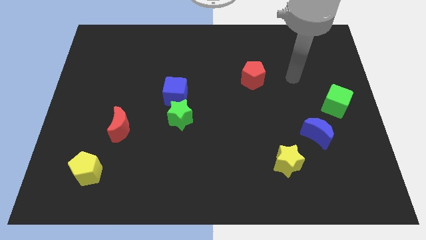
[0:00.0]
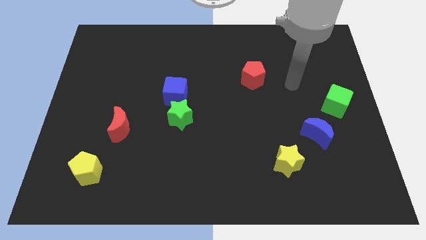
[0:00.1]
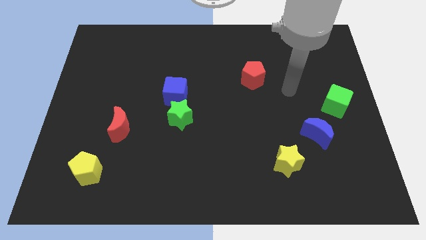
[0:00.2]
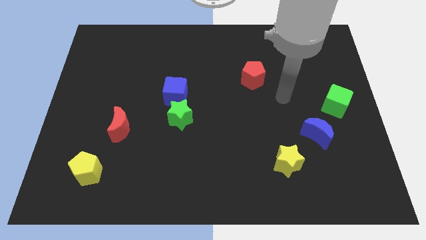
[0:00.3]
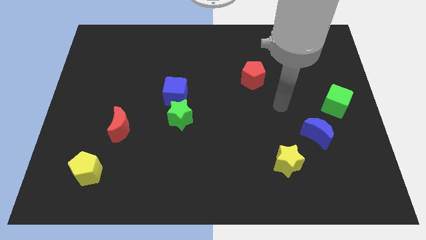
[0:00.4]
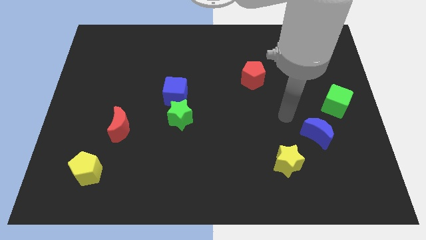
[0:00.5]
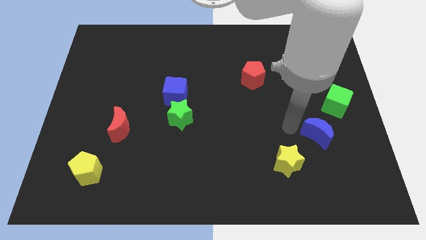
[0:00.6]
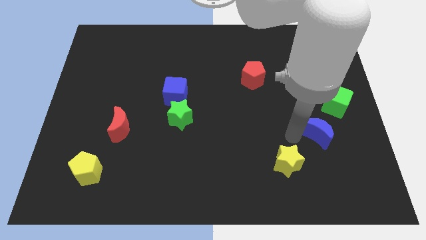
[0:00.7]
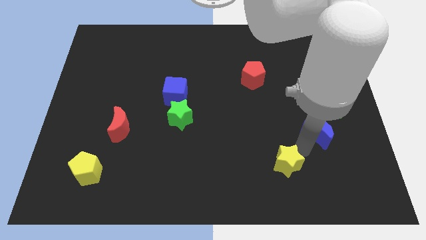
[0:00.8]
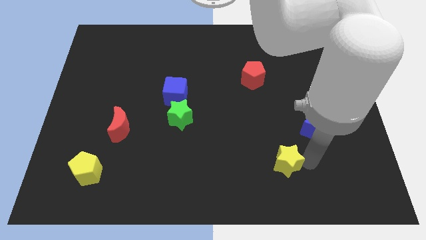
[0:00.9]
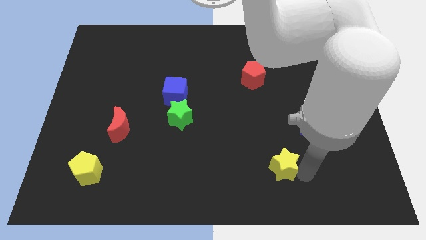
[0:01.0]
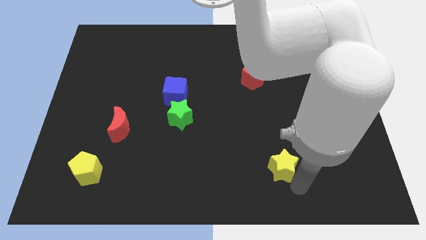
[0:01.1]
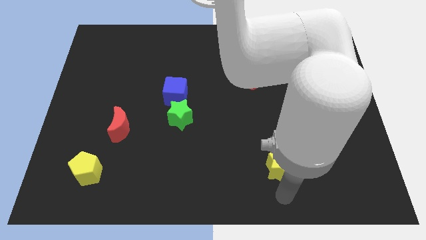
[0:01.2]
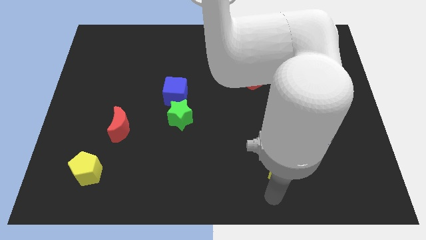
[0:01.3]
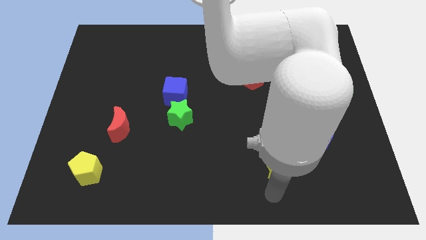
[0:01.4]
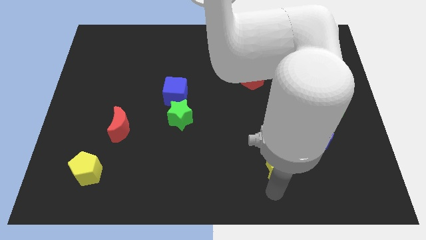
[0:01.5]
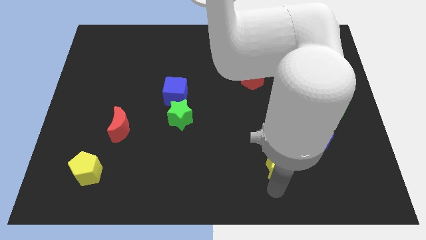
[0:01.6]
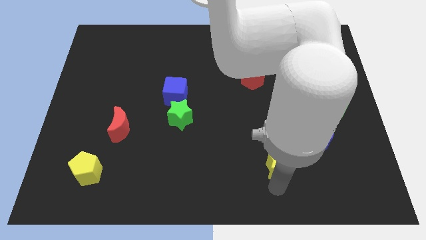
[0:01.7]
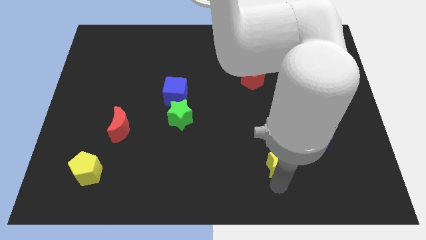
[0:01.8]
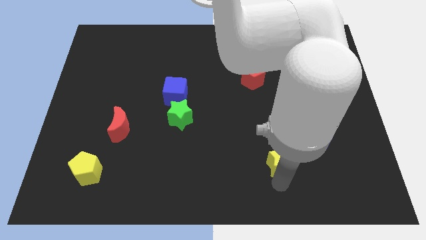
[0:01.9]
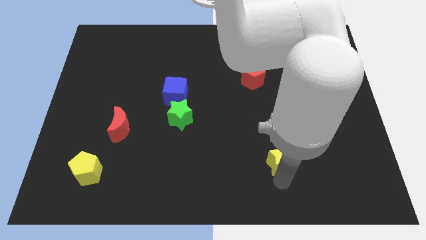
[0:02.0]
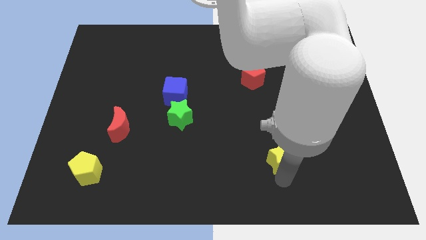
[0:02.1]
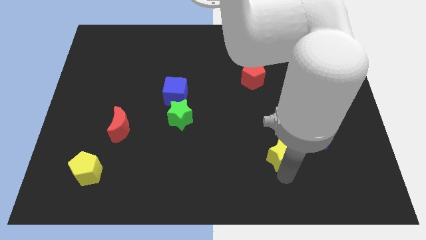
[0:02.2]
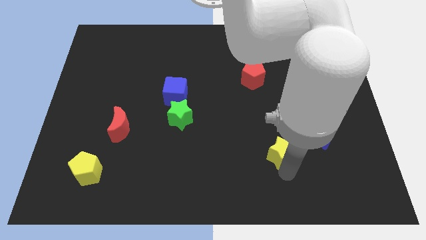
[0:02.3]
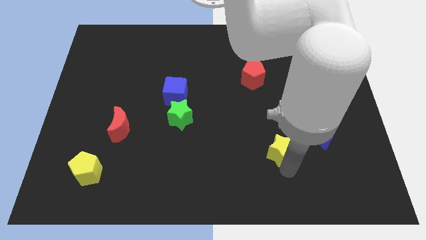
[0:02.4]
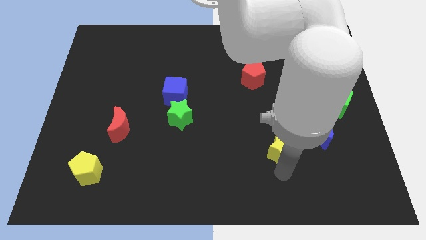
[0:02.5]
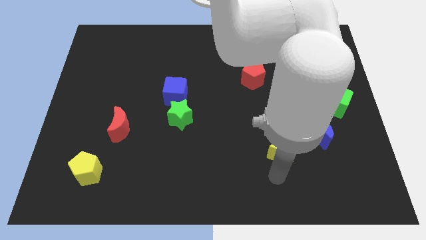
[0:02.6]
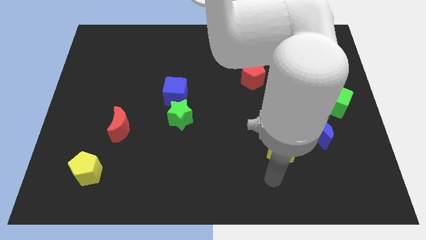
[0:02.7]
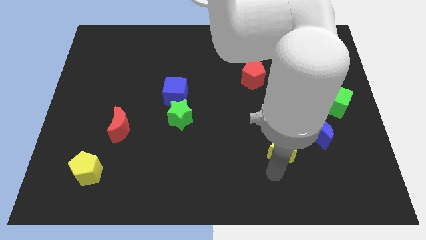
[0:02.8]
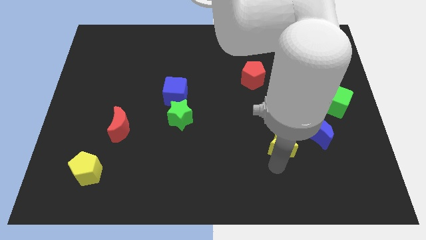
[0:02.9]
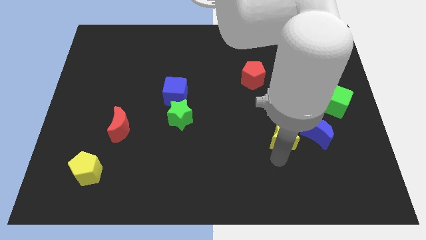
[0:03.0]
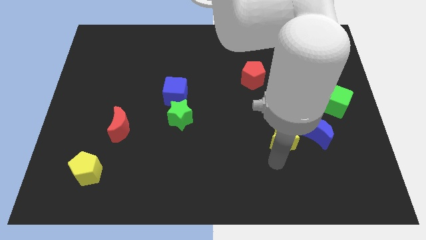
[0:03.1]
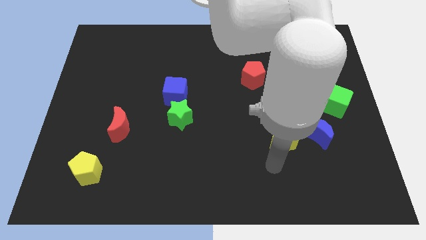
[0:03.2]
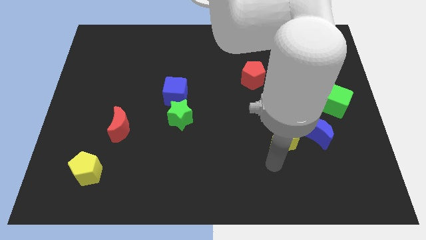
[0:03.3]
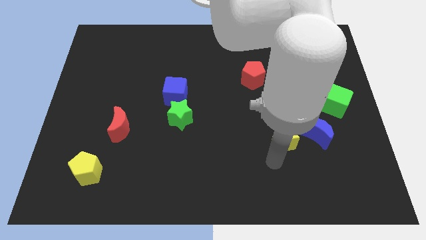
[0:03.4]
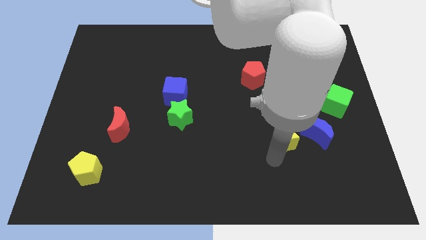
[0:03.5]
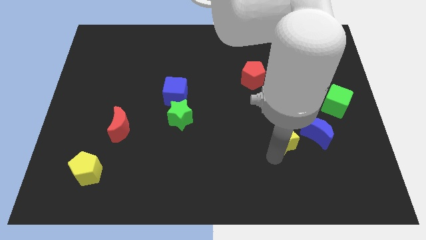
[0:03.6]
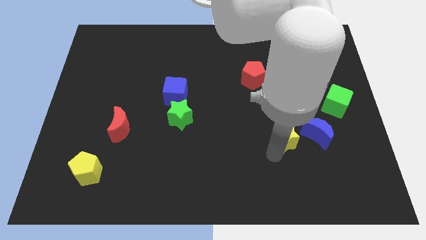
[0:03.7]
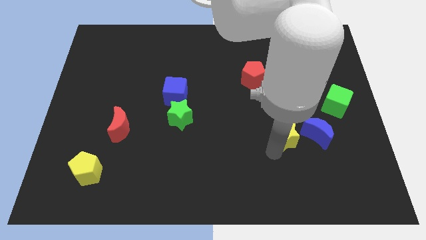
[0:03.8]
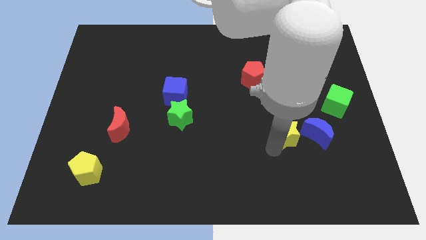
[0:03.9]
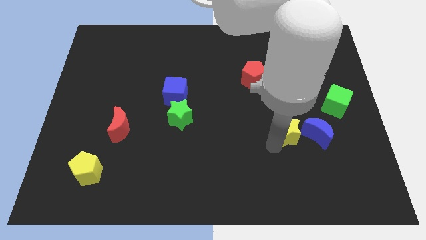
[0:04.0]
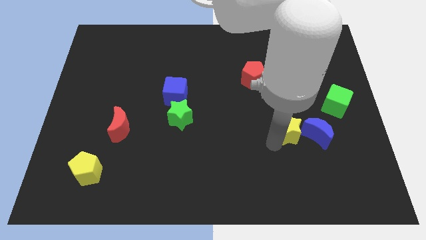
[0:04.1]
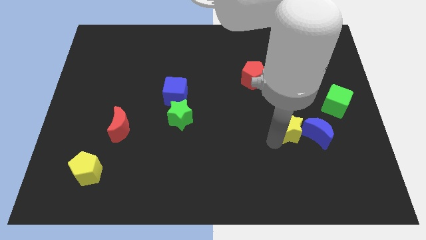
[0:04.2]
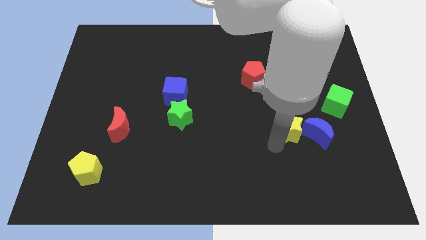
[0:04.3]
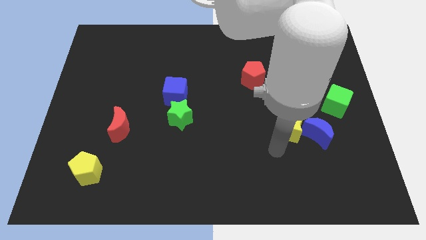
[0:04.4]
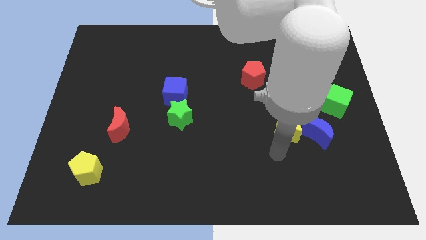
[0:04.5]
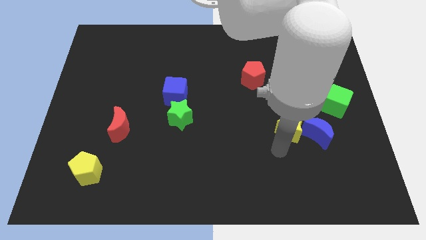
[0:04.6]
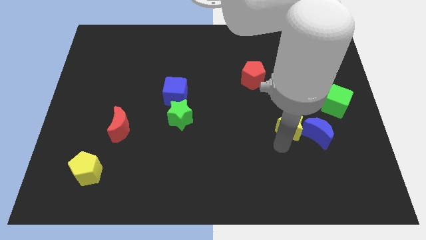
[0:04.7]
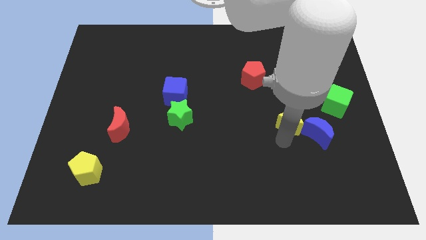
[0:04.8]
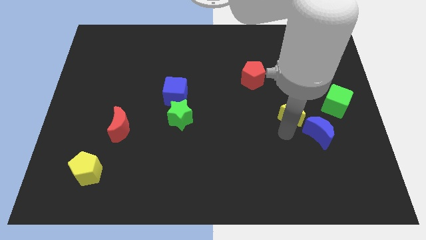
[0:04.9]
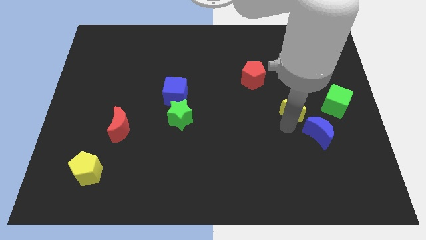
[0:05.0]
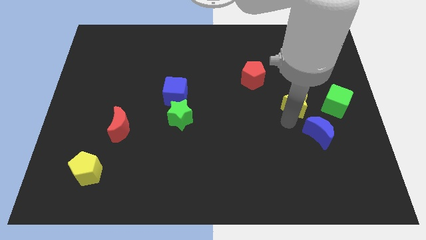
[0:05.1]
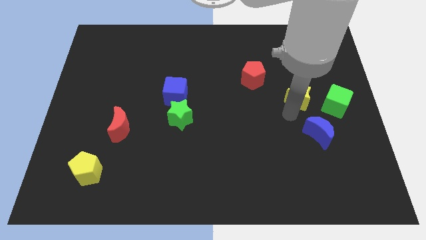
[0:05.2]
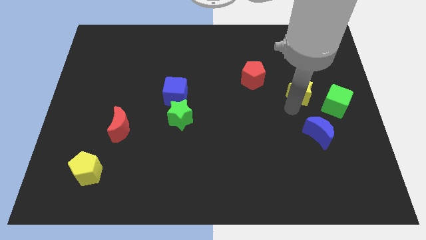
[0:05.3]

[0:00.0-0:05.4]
slide the yellow star diagonally up and to the left of the green cube

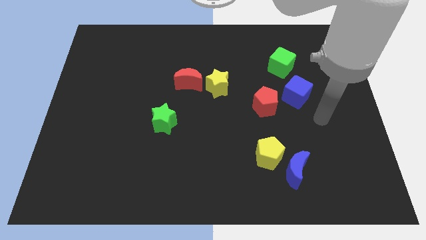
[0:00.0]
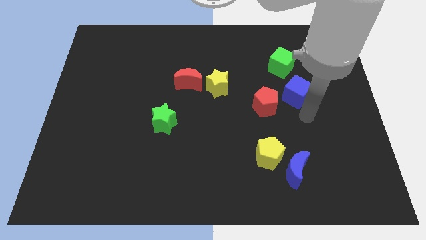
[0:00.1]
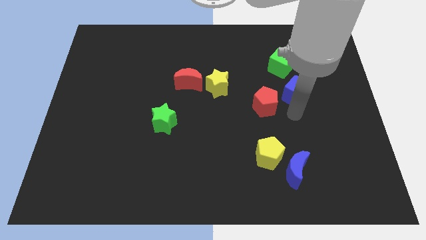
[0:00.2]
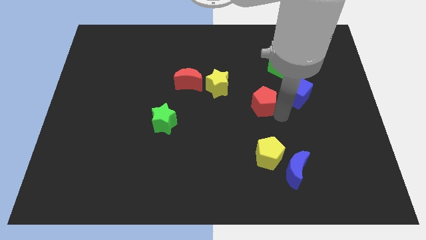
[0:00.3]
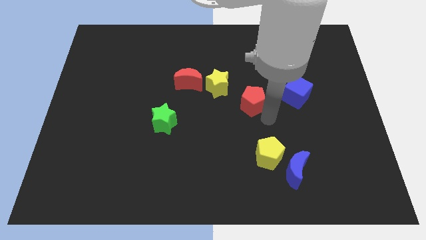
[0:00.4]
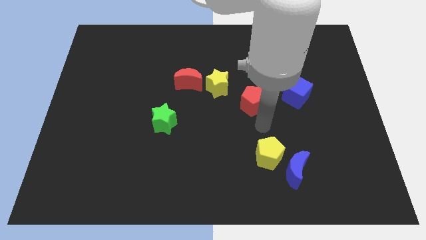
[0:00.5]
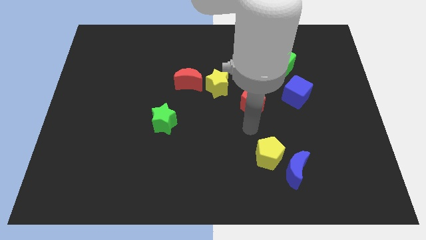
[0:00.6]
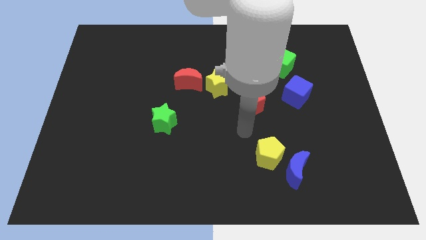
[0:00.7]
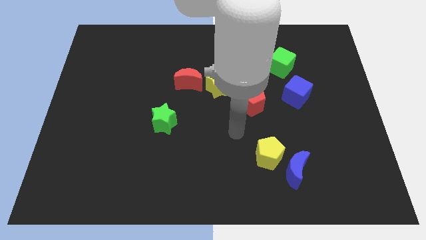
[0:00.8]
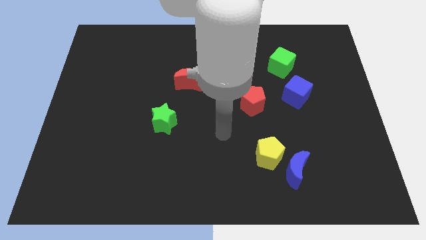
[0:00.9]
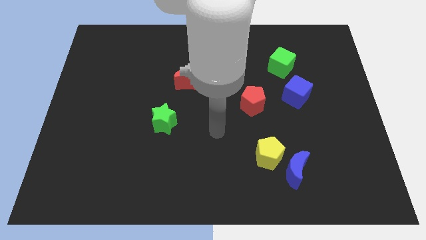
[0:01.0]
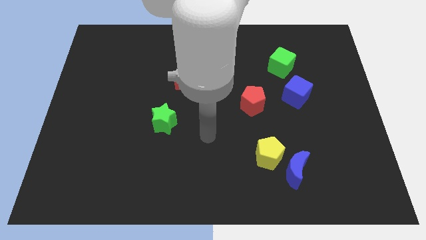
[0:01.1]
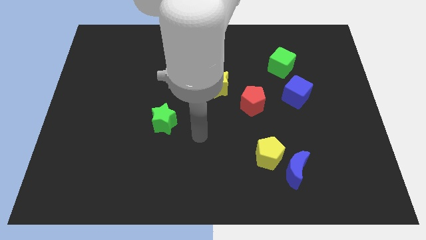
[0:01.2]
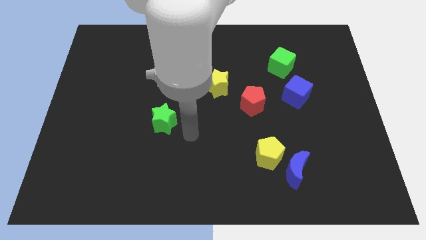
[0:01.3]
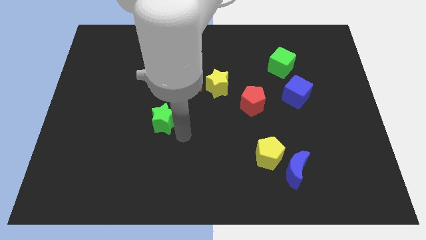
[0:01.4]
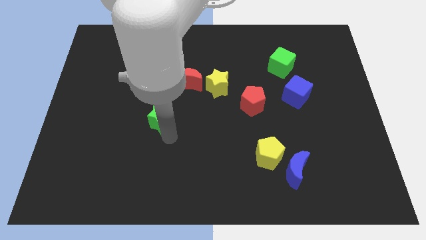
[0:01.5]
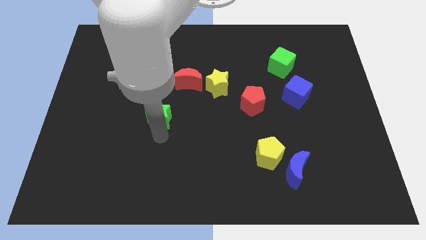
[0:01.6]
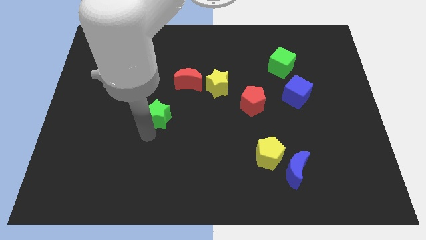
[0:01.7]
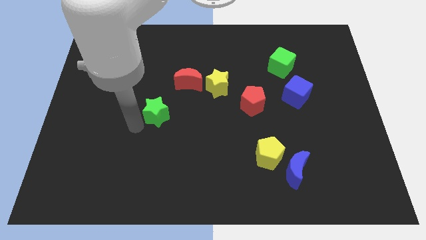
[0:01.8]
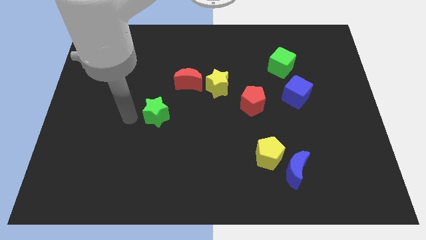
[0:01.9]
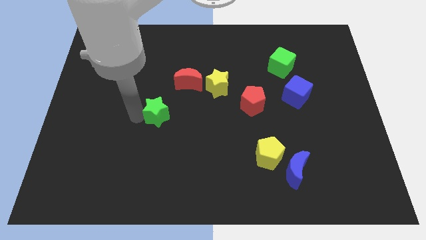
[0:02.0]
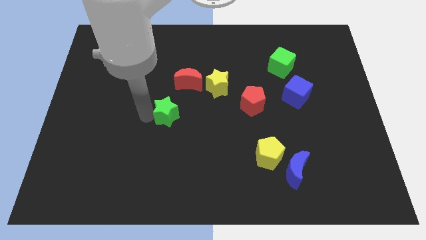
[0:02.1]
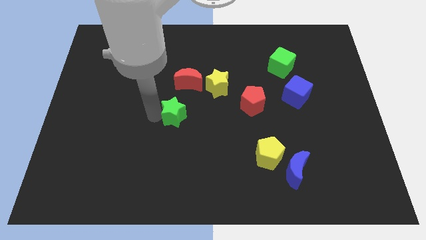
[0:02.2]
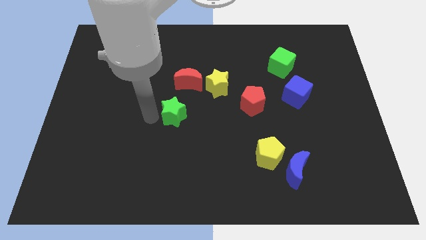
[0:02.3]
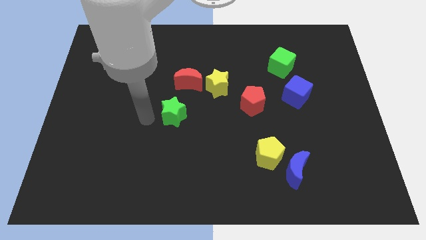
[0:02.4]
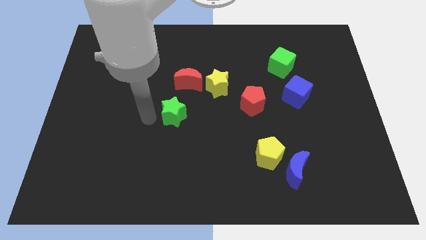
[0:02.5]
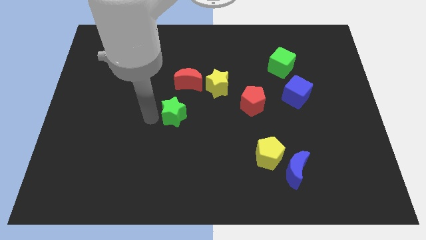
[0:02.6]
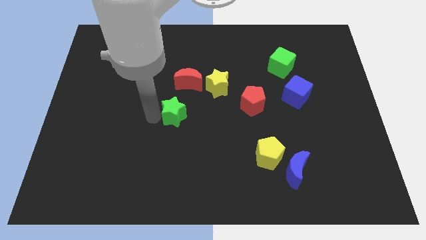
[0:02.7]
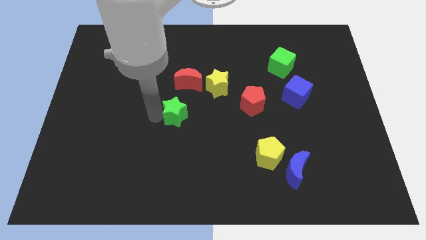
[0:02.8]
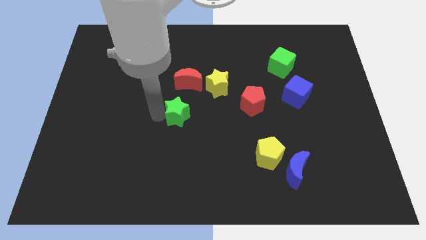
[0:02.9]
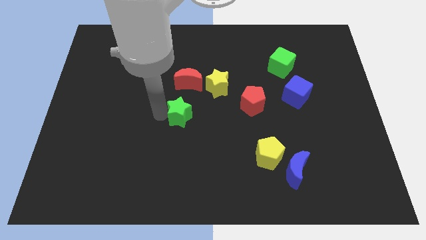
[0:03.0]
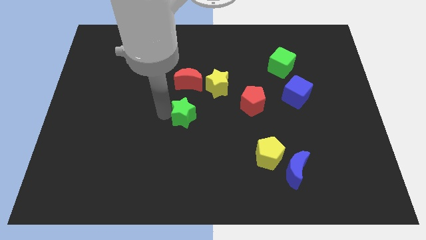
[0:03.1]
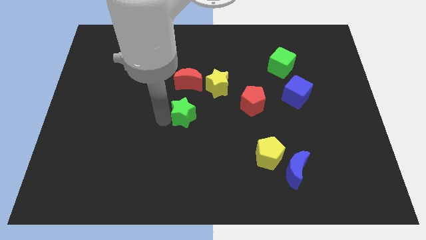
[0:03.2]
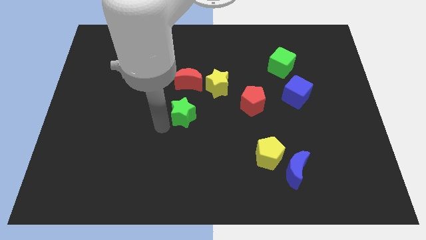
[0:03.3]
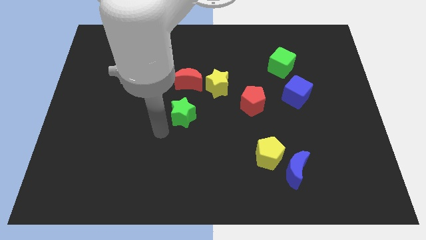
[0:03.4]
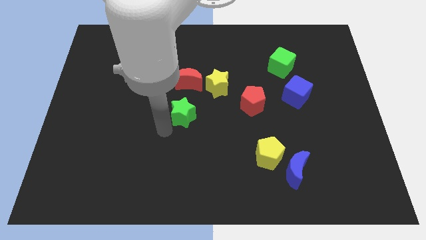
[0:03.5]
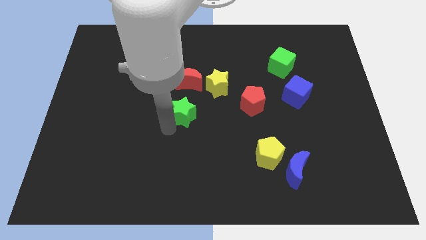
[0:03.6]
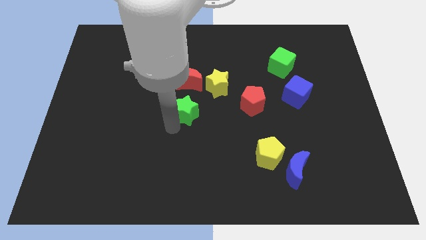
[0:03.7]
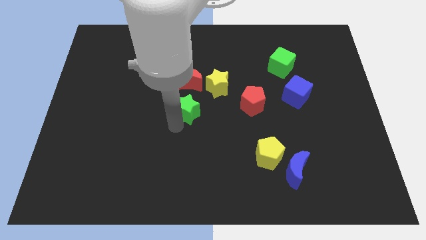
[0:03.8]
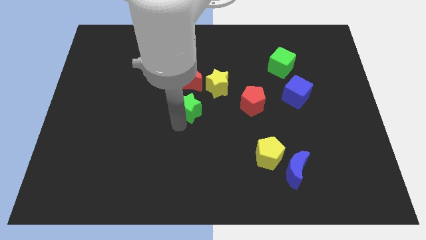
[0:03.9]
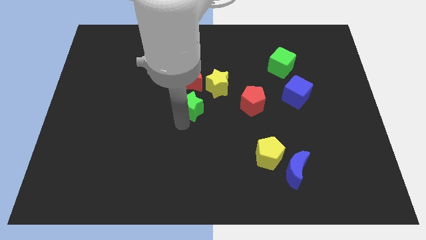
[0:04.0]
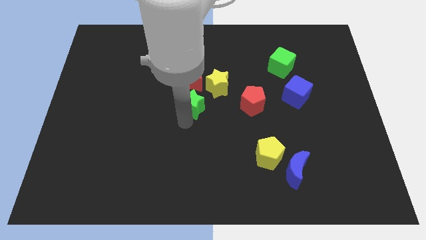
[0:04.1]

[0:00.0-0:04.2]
push the green star to the bottom right side of the red moon
